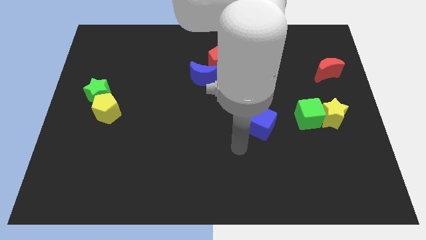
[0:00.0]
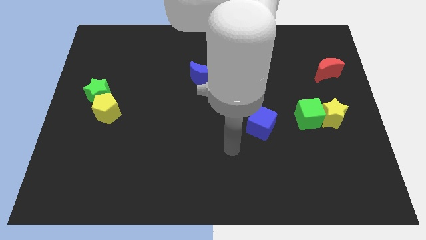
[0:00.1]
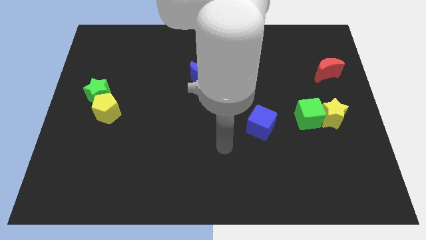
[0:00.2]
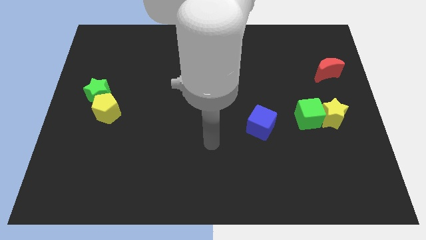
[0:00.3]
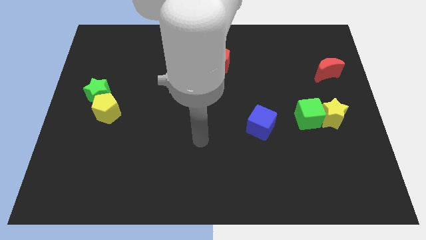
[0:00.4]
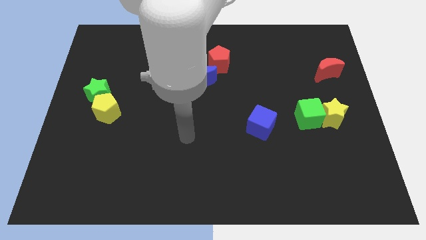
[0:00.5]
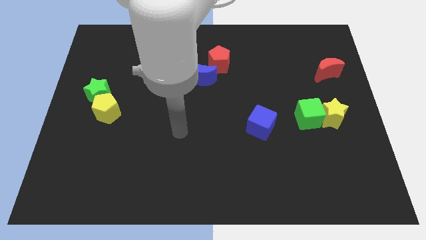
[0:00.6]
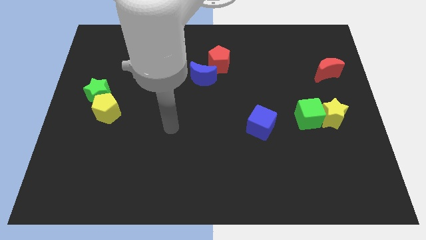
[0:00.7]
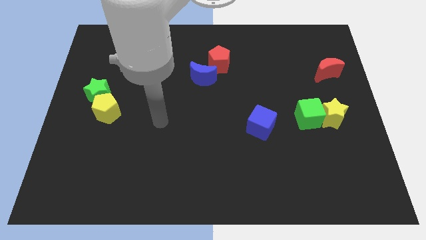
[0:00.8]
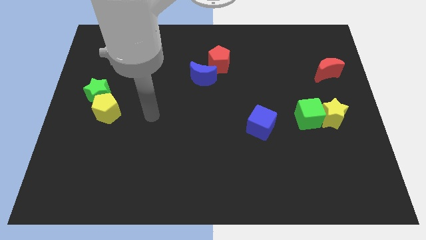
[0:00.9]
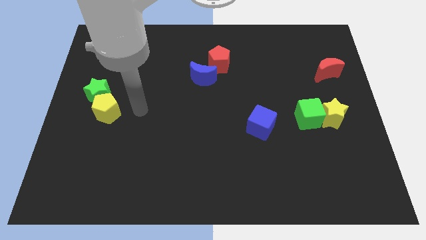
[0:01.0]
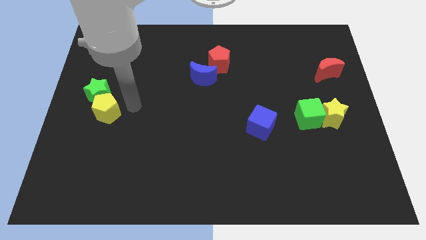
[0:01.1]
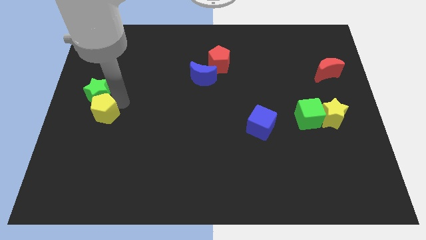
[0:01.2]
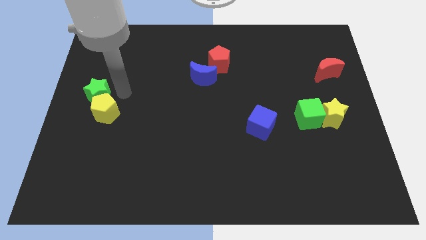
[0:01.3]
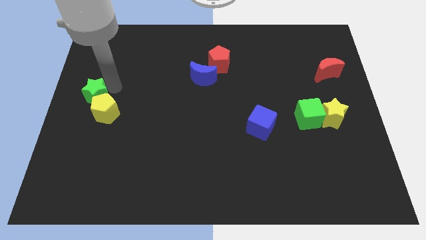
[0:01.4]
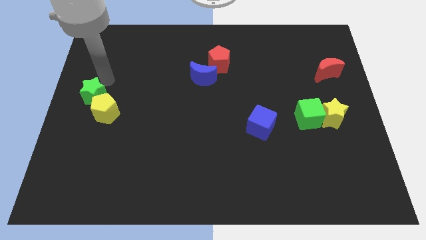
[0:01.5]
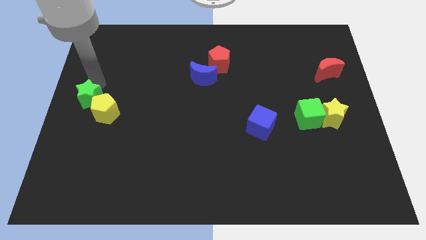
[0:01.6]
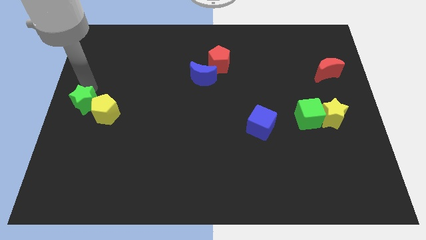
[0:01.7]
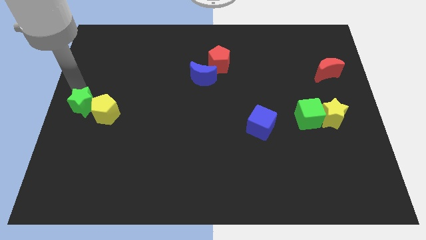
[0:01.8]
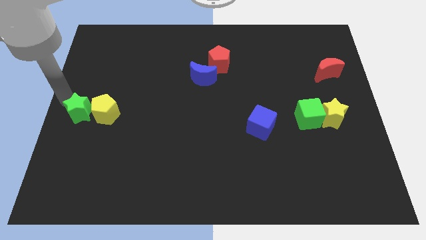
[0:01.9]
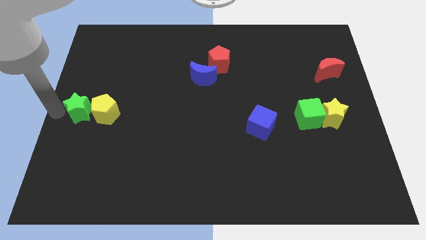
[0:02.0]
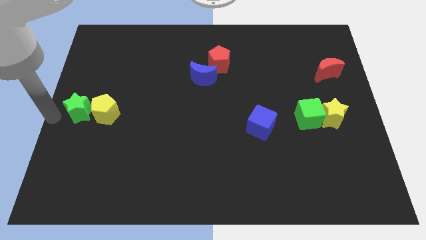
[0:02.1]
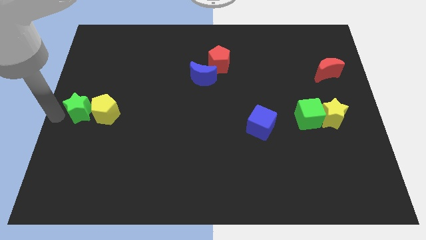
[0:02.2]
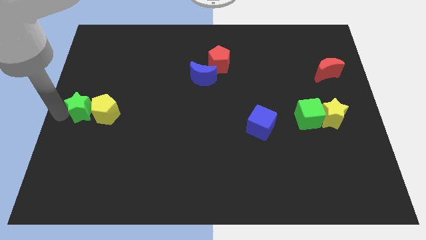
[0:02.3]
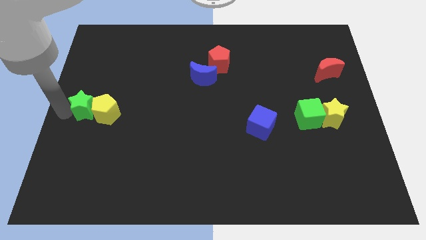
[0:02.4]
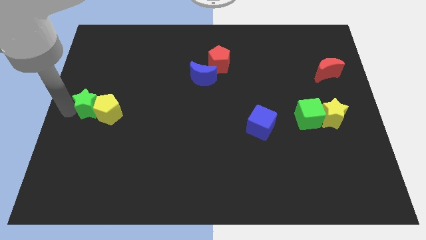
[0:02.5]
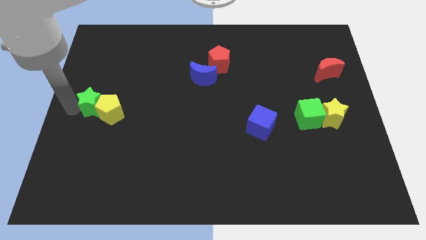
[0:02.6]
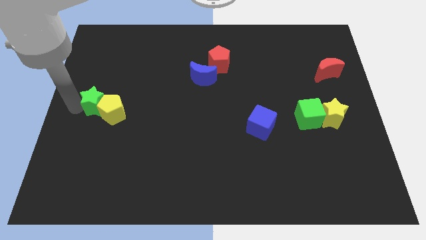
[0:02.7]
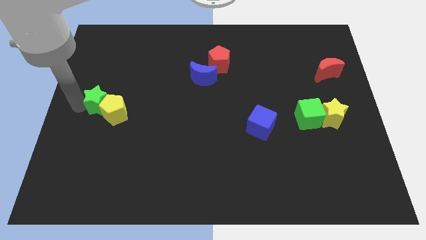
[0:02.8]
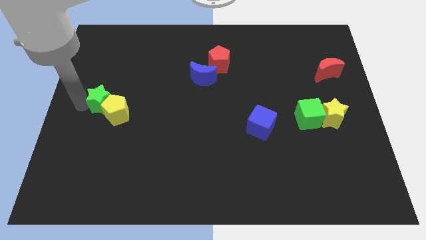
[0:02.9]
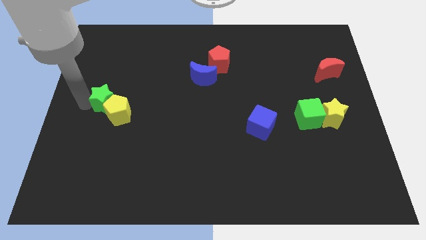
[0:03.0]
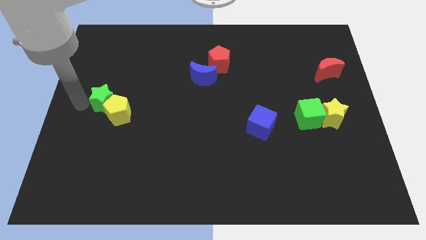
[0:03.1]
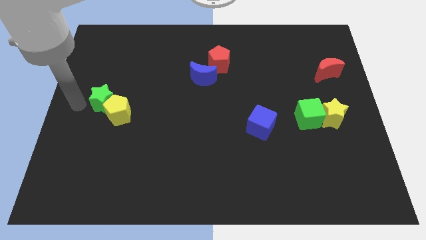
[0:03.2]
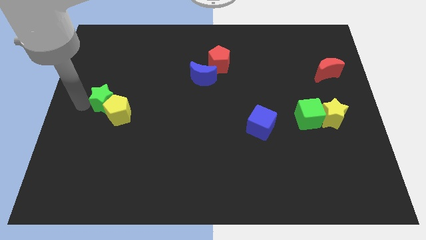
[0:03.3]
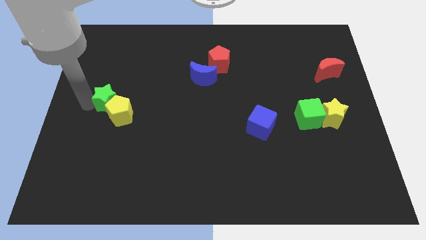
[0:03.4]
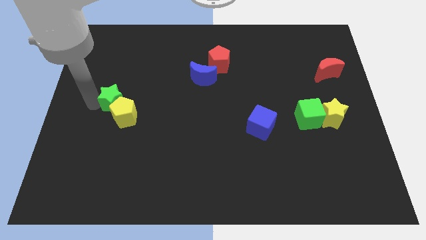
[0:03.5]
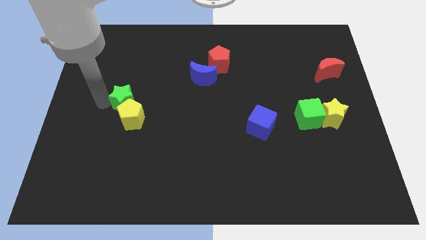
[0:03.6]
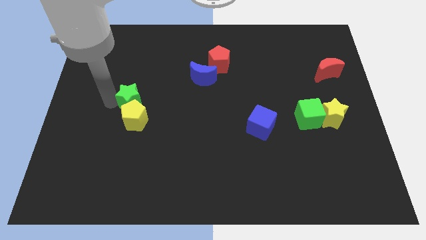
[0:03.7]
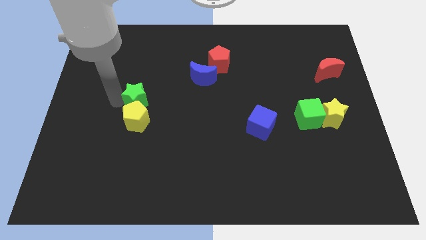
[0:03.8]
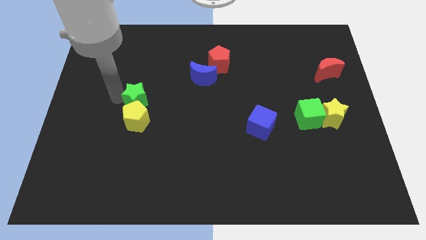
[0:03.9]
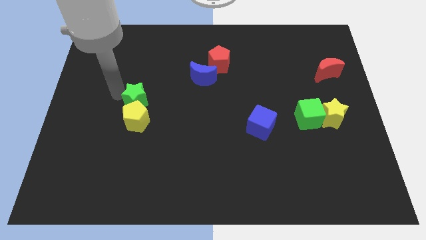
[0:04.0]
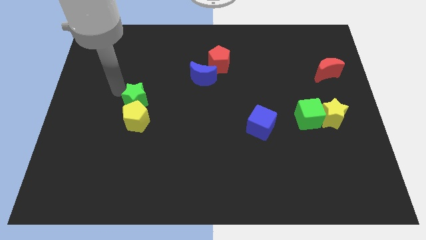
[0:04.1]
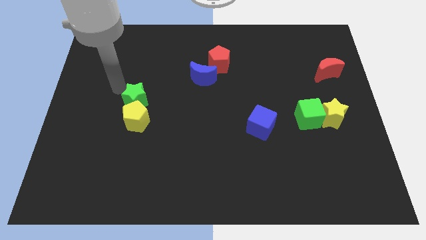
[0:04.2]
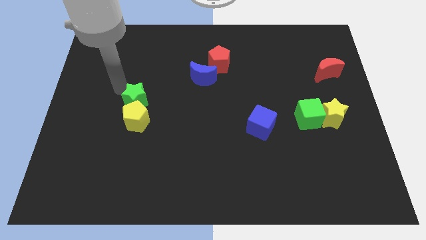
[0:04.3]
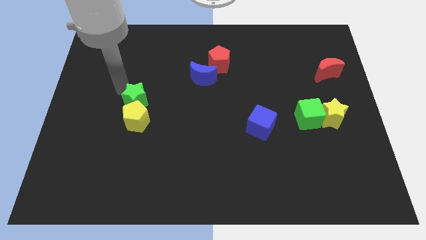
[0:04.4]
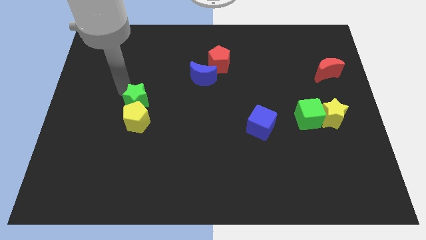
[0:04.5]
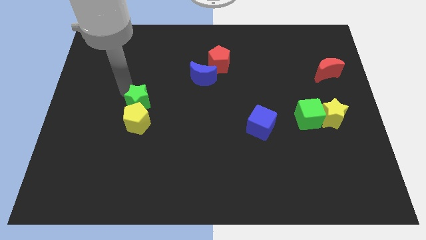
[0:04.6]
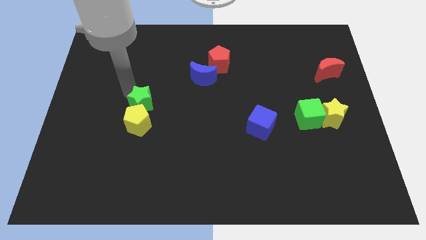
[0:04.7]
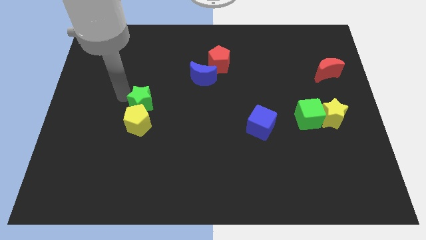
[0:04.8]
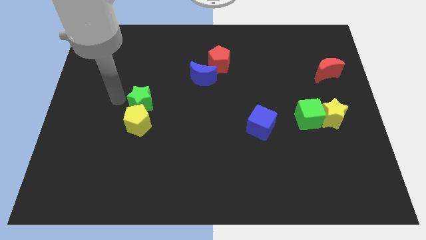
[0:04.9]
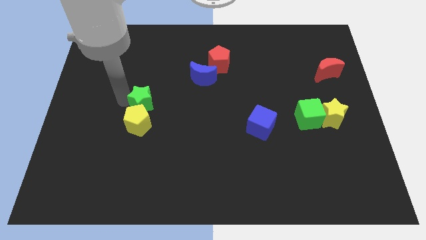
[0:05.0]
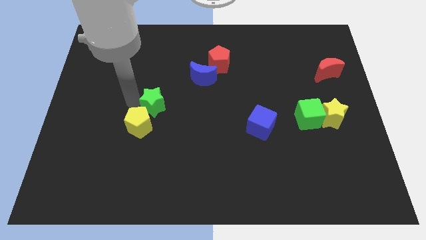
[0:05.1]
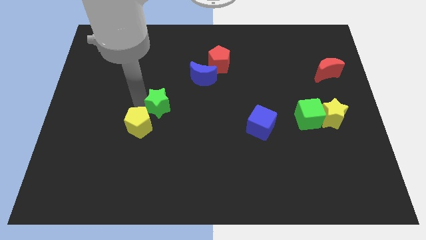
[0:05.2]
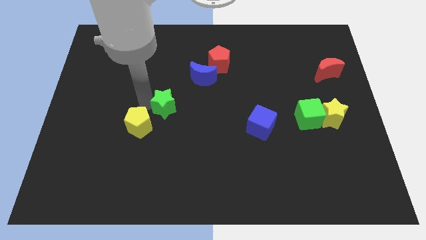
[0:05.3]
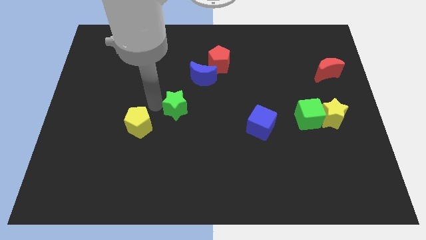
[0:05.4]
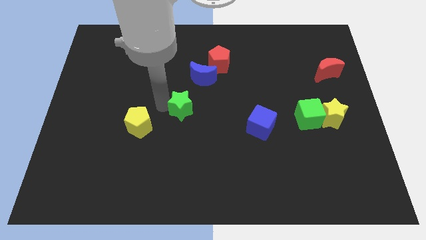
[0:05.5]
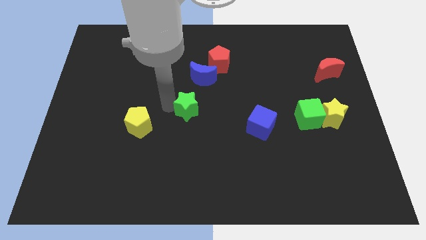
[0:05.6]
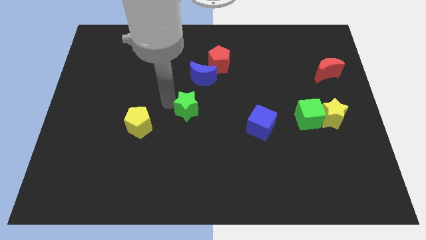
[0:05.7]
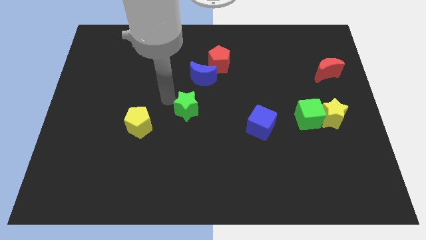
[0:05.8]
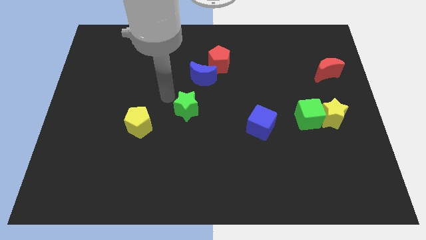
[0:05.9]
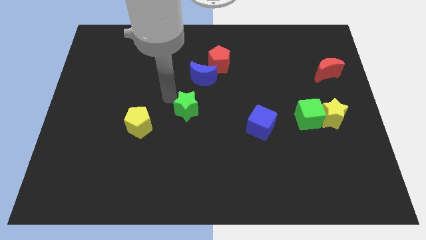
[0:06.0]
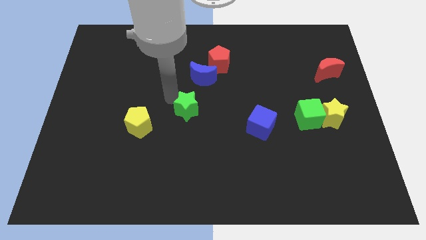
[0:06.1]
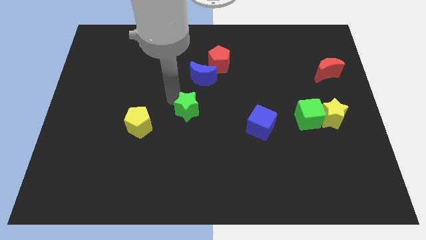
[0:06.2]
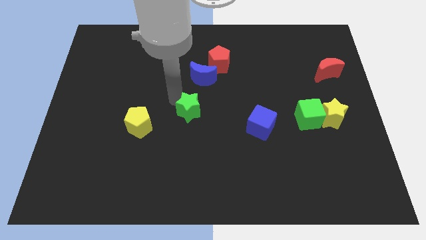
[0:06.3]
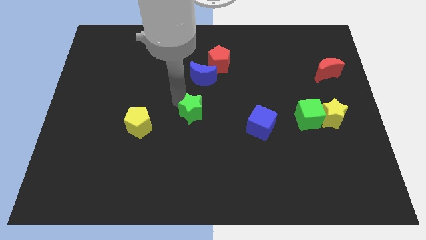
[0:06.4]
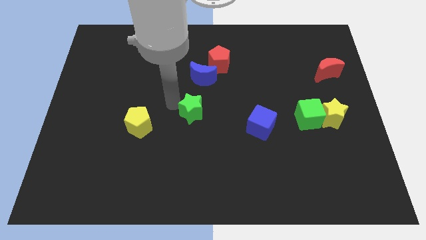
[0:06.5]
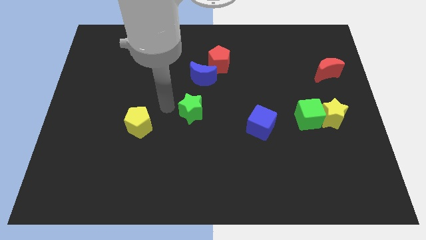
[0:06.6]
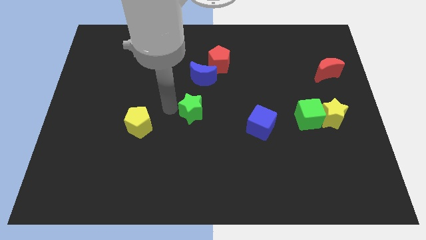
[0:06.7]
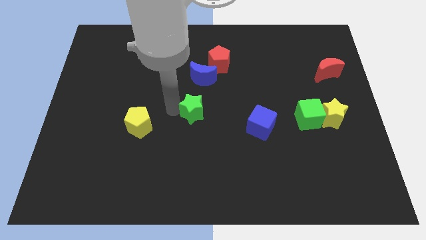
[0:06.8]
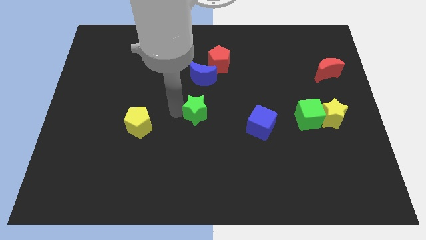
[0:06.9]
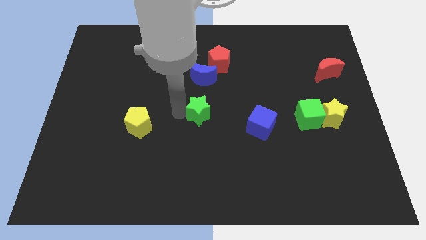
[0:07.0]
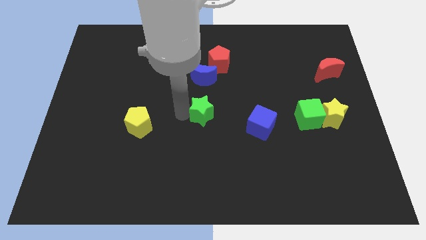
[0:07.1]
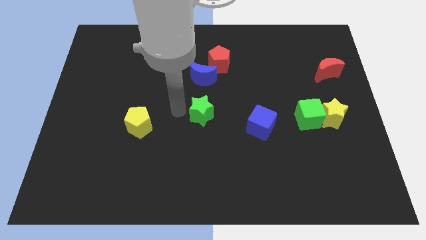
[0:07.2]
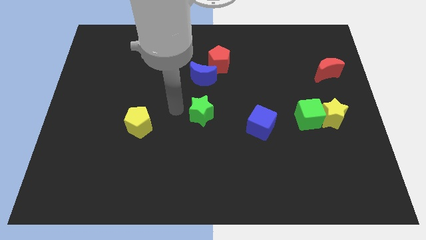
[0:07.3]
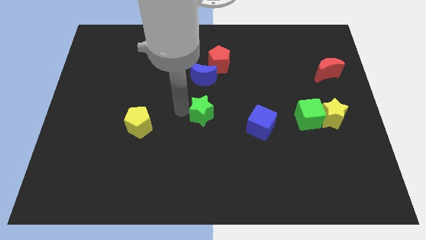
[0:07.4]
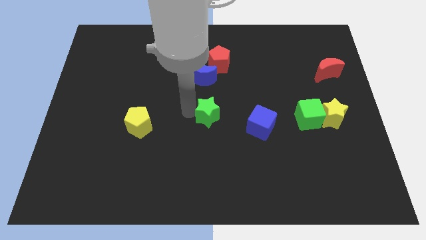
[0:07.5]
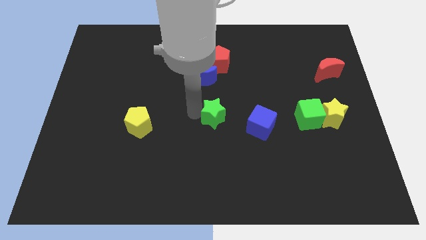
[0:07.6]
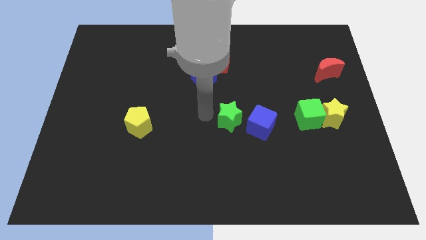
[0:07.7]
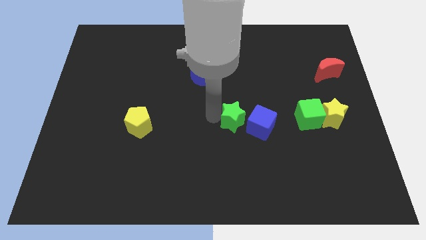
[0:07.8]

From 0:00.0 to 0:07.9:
slide the green star to the blue cube

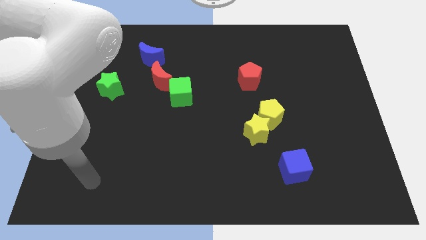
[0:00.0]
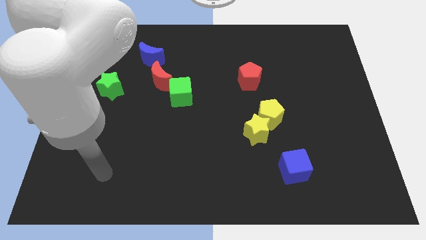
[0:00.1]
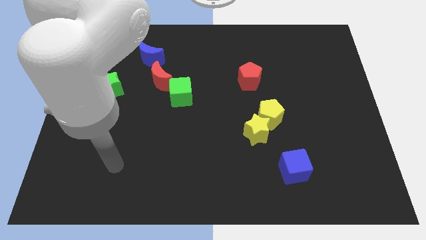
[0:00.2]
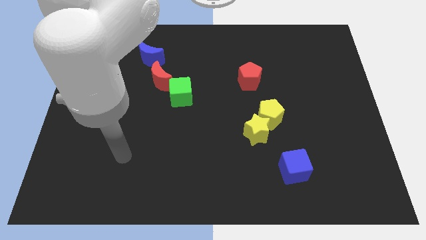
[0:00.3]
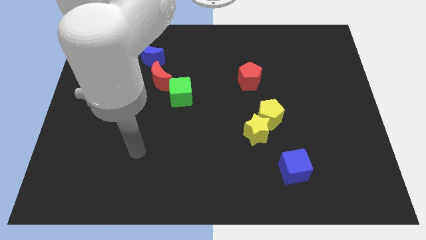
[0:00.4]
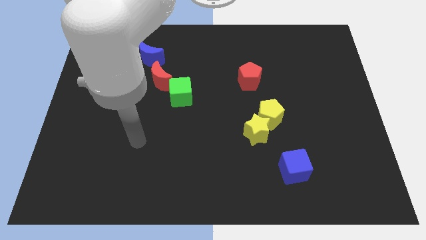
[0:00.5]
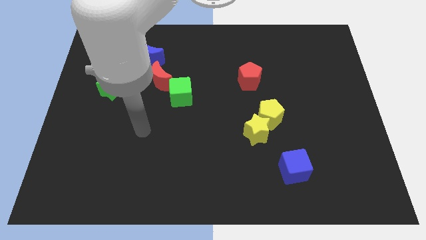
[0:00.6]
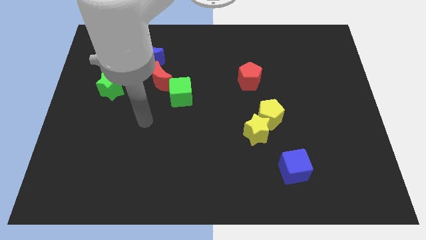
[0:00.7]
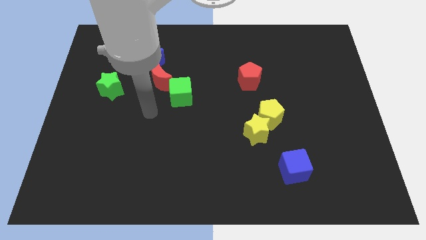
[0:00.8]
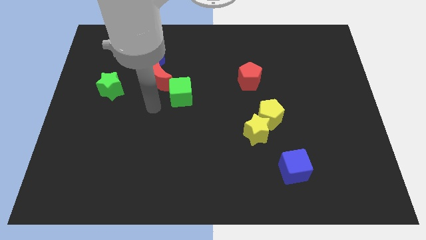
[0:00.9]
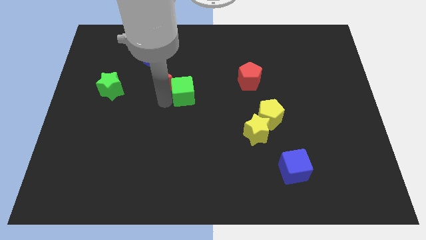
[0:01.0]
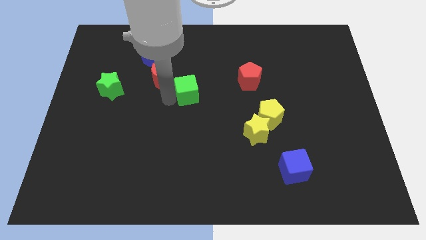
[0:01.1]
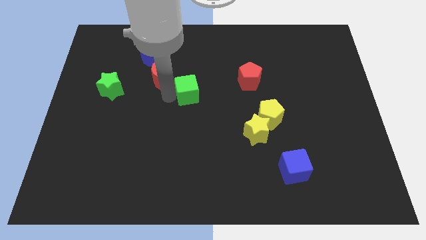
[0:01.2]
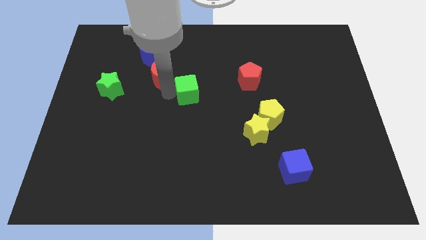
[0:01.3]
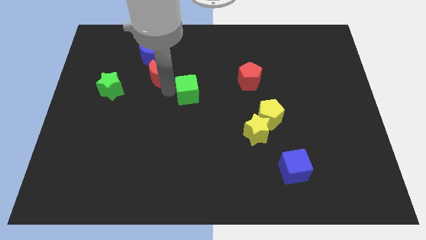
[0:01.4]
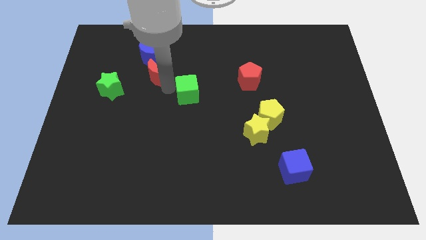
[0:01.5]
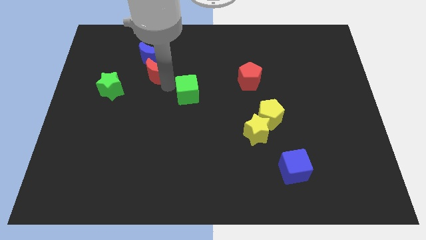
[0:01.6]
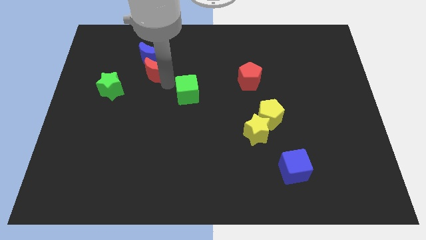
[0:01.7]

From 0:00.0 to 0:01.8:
move the red moon next to the blue moon
